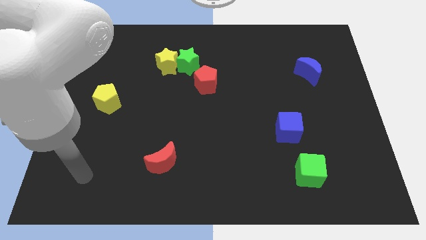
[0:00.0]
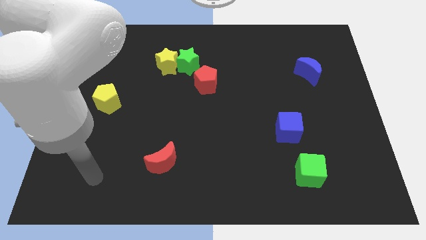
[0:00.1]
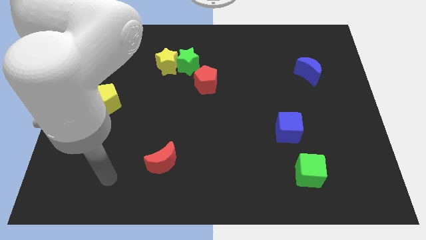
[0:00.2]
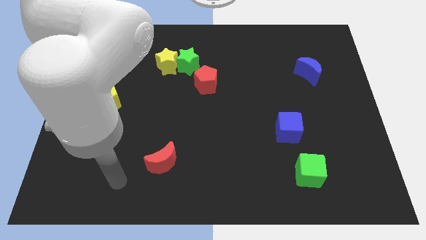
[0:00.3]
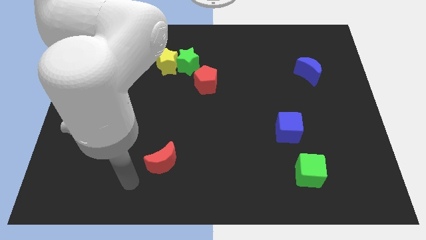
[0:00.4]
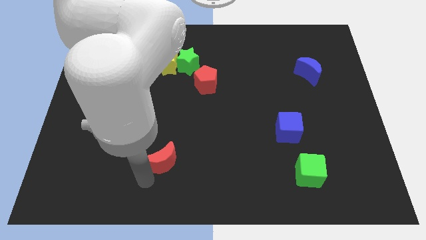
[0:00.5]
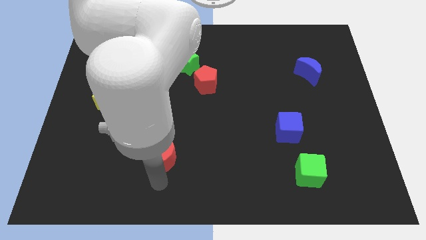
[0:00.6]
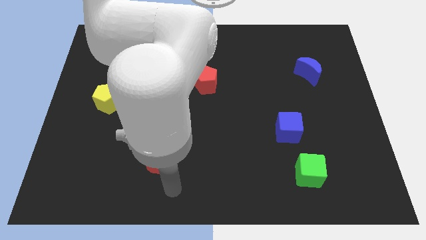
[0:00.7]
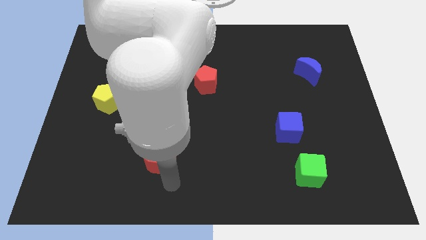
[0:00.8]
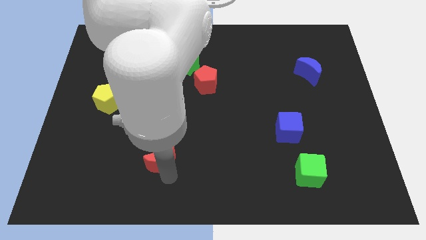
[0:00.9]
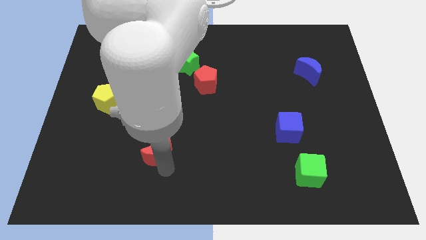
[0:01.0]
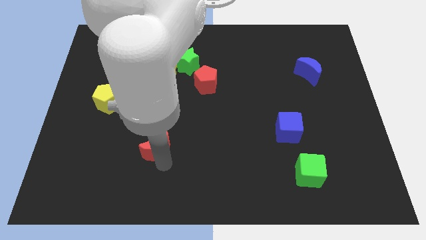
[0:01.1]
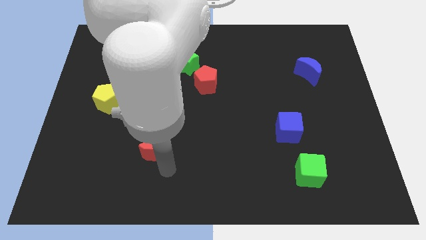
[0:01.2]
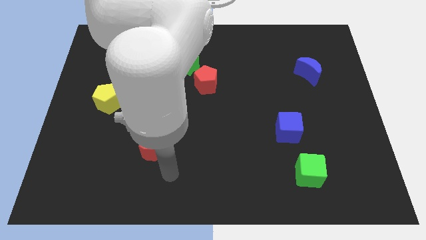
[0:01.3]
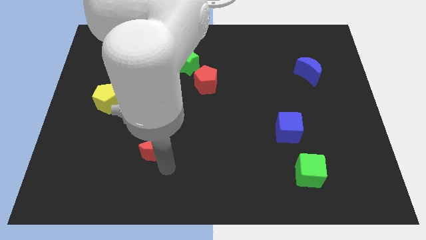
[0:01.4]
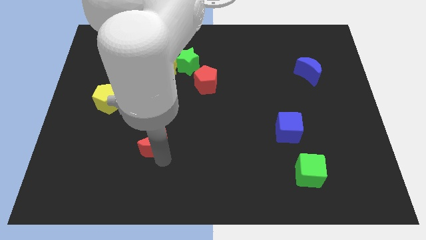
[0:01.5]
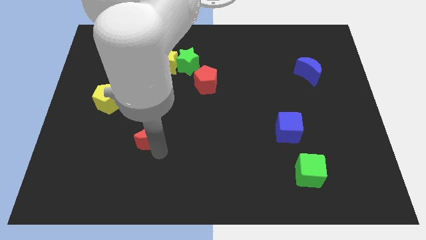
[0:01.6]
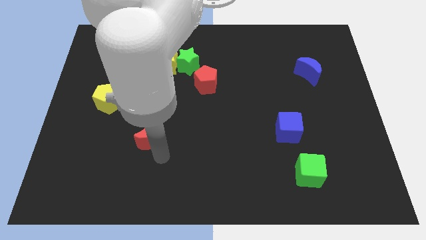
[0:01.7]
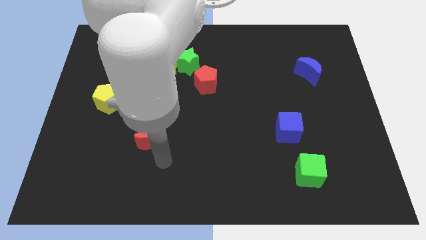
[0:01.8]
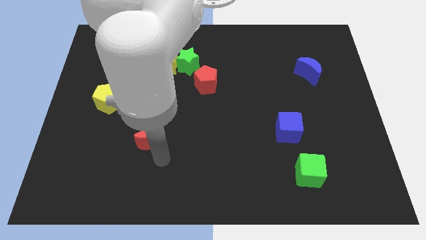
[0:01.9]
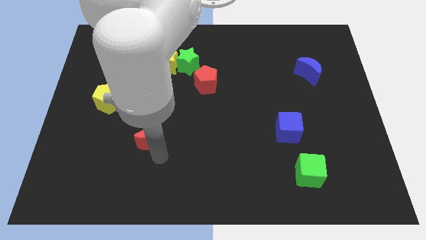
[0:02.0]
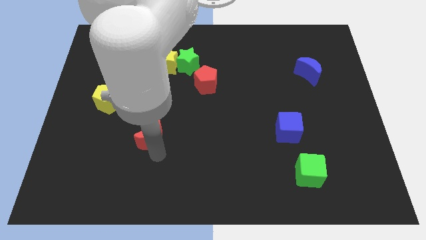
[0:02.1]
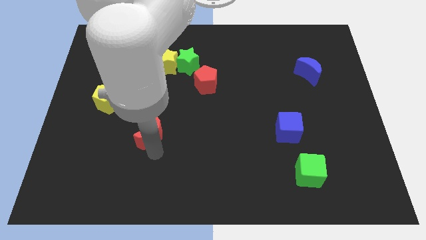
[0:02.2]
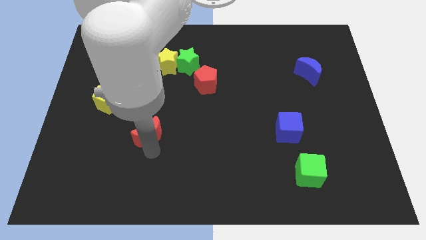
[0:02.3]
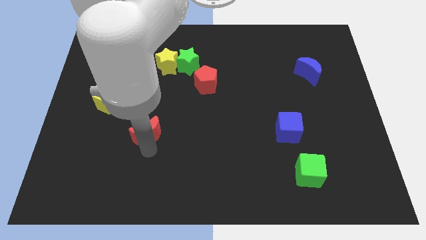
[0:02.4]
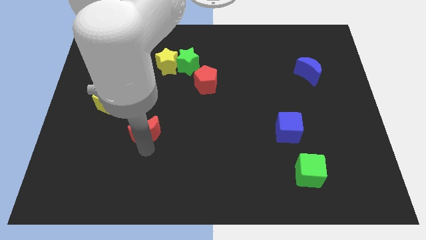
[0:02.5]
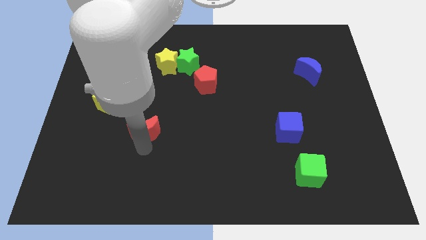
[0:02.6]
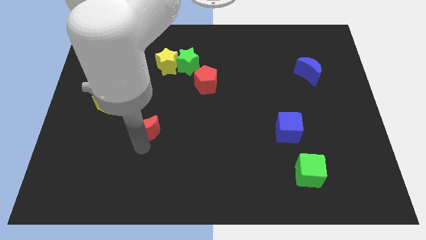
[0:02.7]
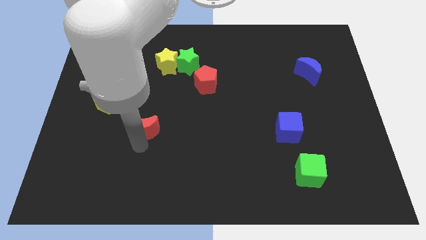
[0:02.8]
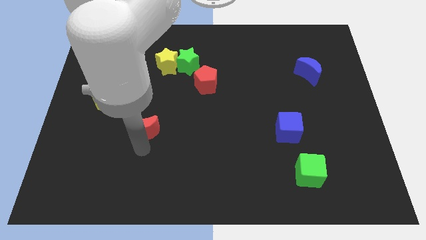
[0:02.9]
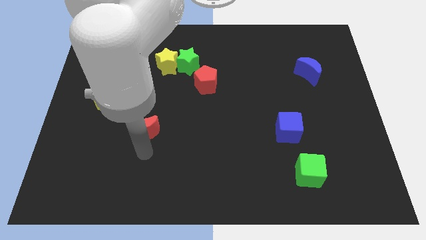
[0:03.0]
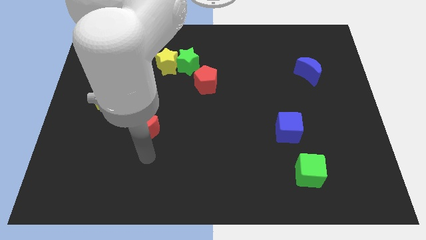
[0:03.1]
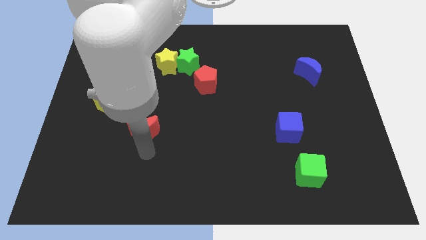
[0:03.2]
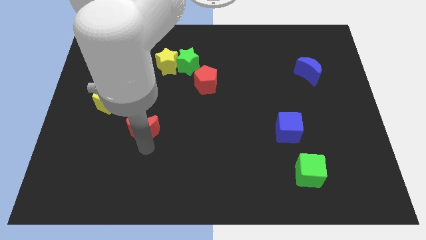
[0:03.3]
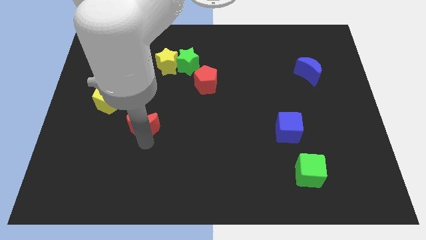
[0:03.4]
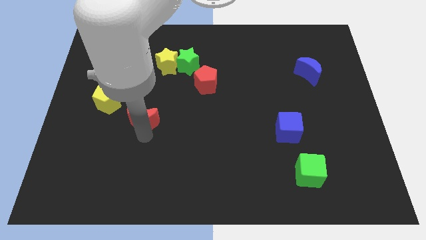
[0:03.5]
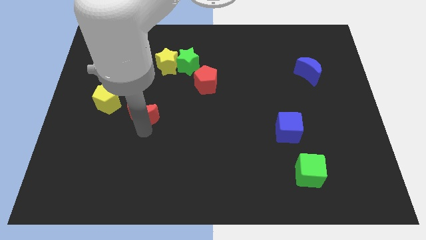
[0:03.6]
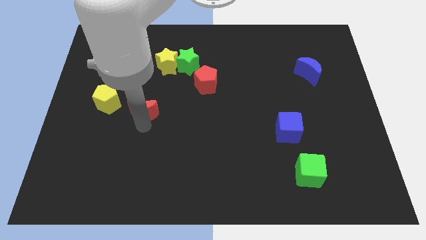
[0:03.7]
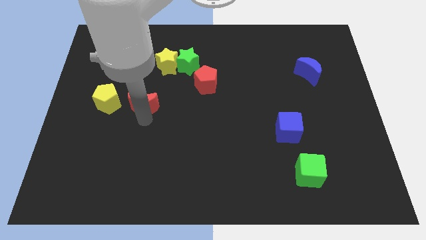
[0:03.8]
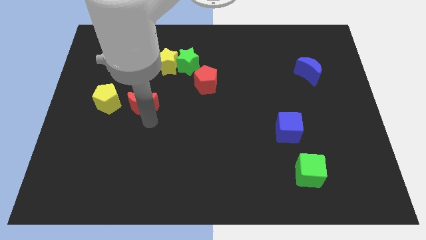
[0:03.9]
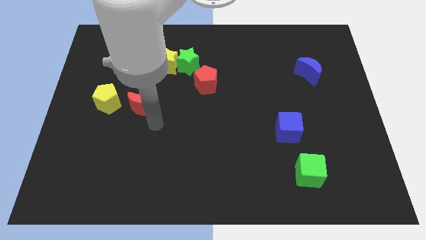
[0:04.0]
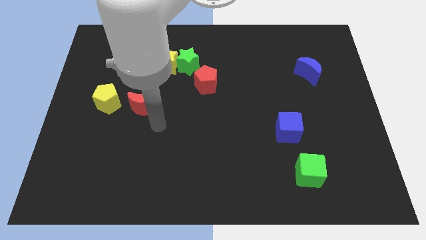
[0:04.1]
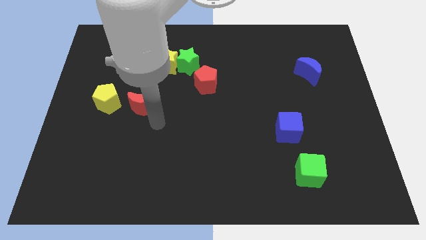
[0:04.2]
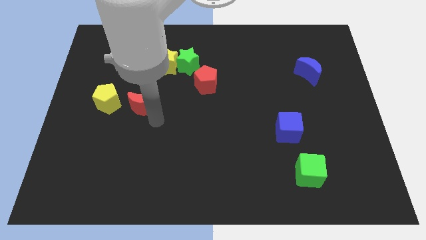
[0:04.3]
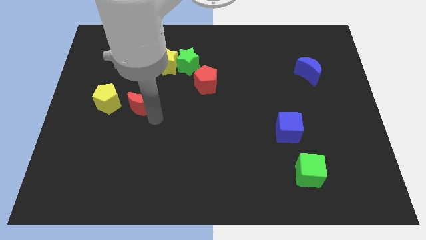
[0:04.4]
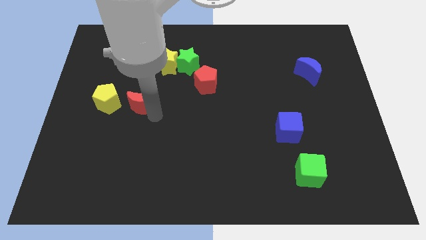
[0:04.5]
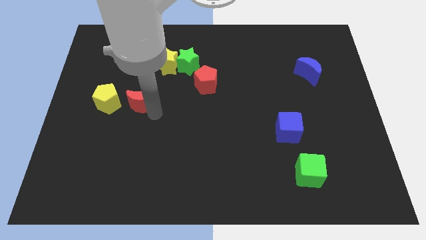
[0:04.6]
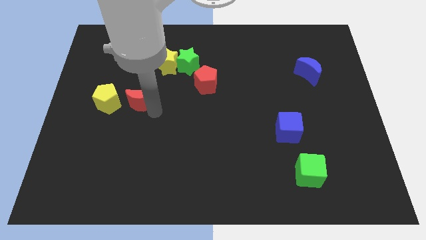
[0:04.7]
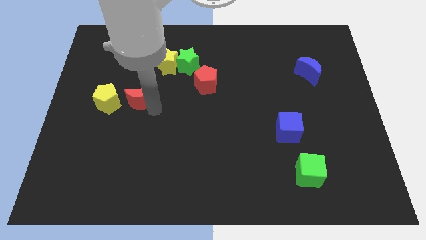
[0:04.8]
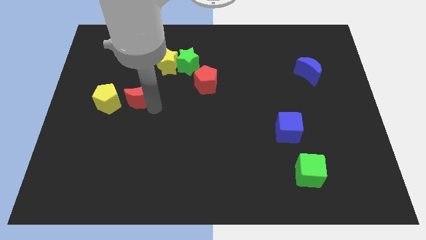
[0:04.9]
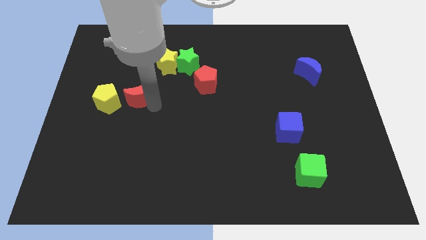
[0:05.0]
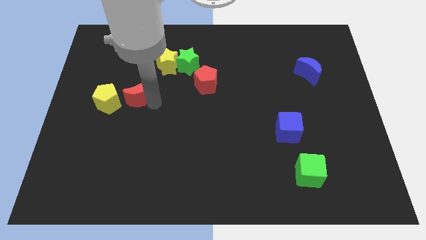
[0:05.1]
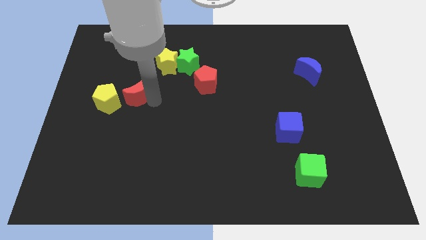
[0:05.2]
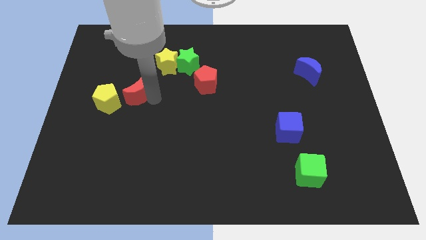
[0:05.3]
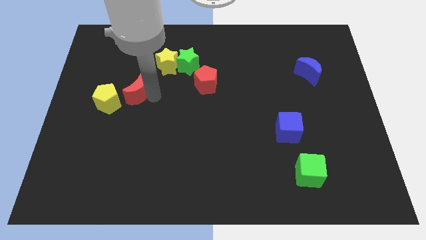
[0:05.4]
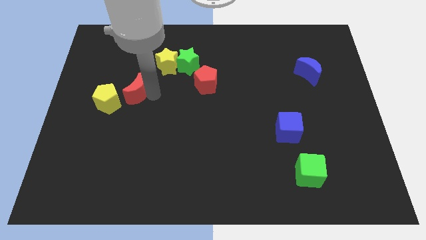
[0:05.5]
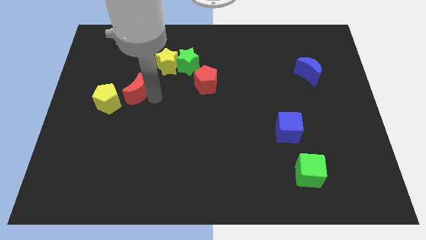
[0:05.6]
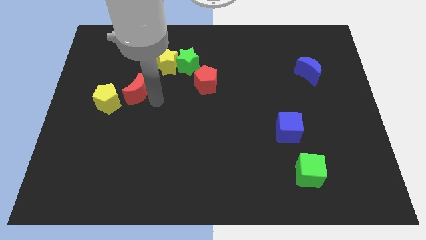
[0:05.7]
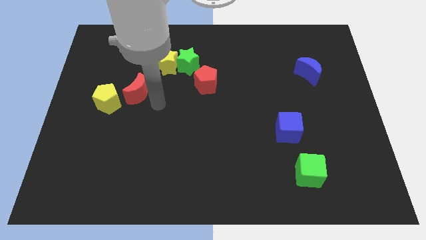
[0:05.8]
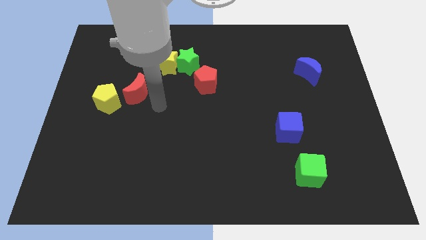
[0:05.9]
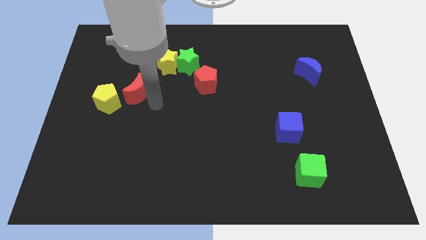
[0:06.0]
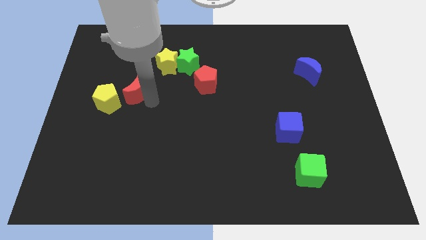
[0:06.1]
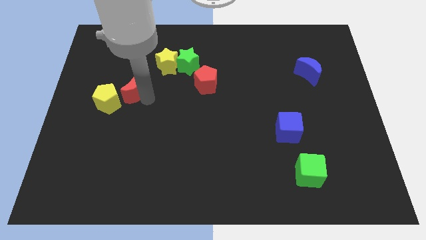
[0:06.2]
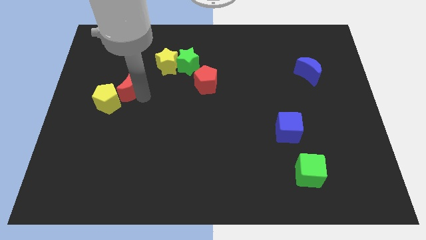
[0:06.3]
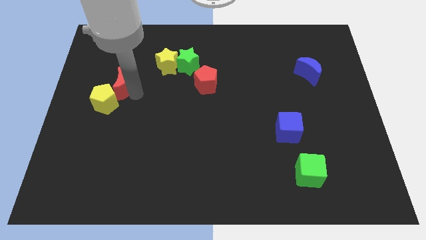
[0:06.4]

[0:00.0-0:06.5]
put the red moon to the top of the yellow pentagon
